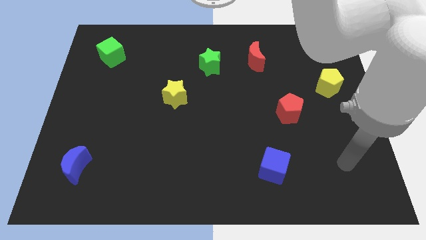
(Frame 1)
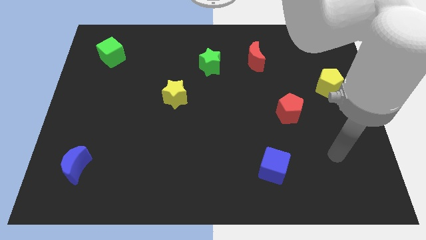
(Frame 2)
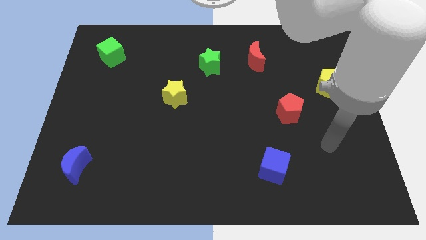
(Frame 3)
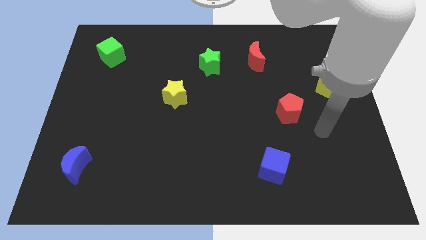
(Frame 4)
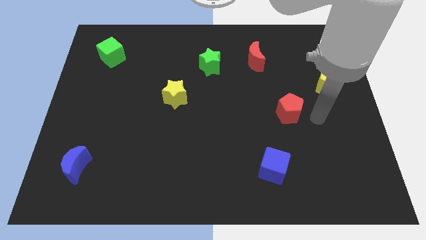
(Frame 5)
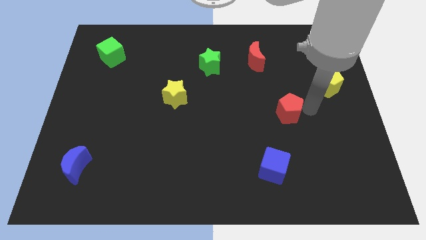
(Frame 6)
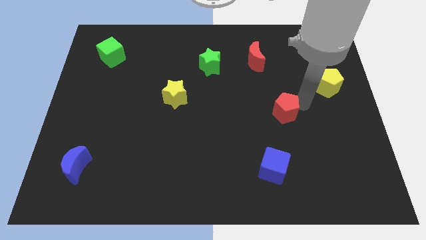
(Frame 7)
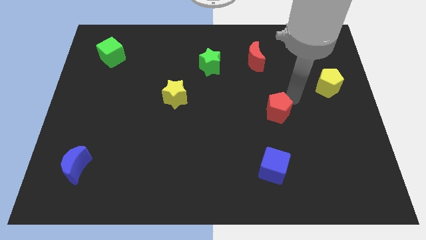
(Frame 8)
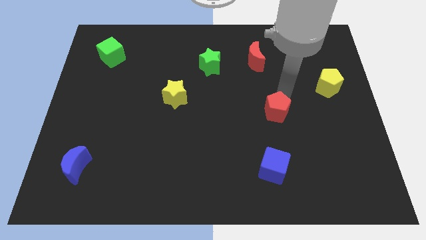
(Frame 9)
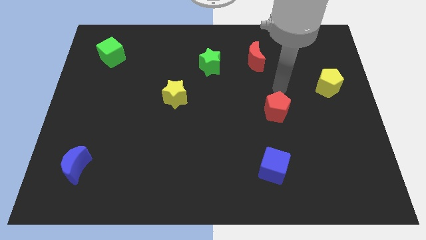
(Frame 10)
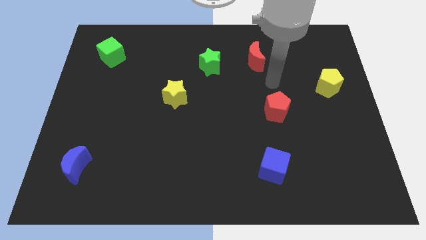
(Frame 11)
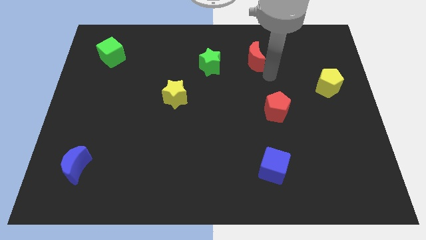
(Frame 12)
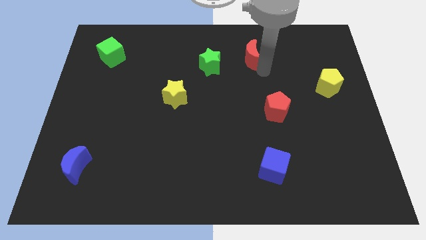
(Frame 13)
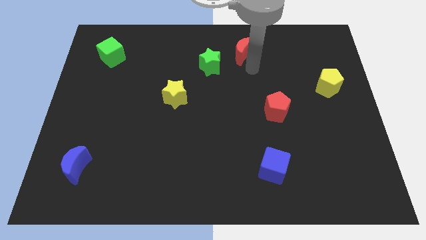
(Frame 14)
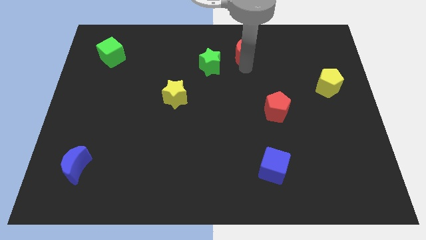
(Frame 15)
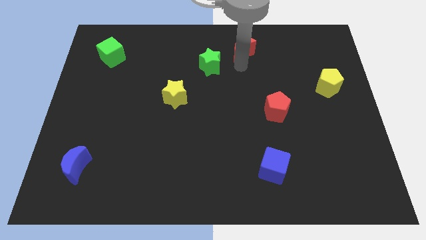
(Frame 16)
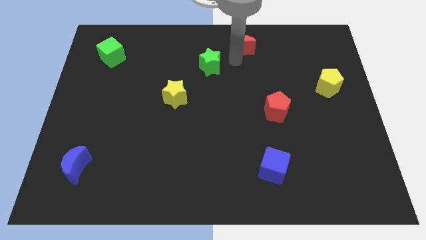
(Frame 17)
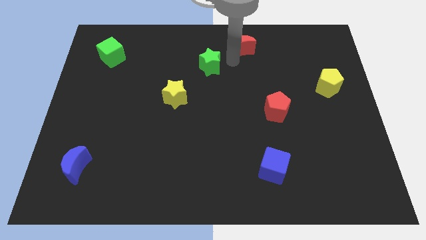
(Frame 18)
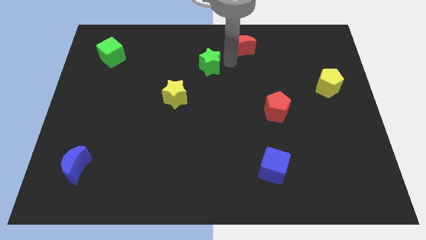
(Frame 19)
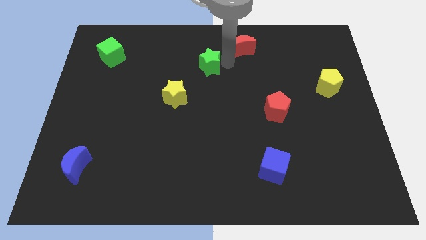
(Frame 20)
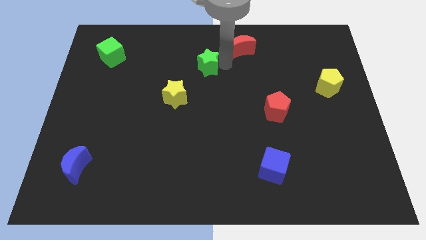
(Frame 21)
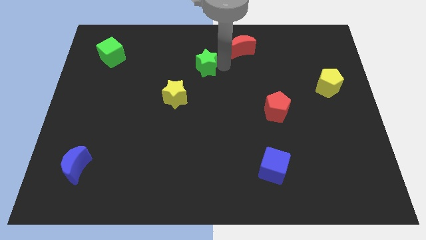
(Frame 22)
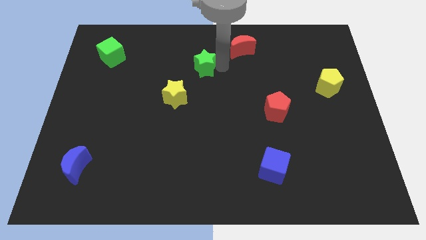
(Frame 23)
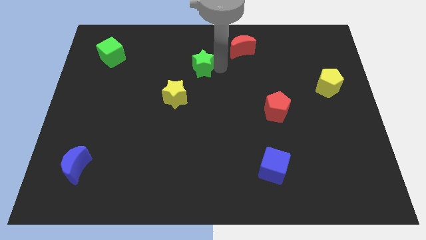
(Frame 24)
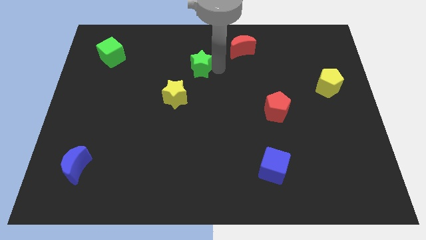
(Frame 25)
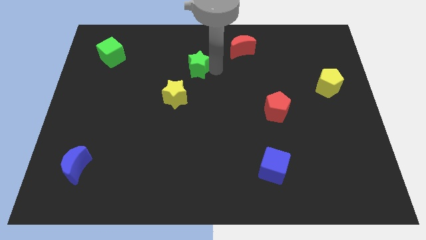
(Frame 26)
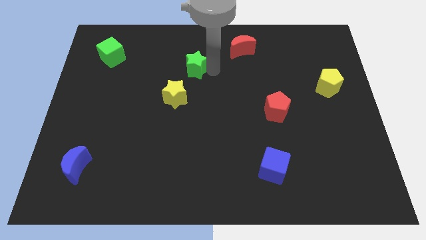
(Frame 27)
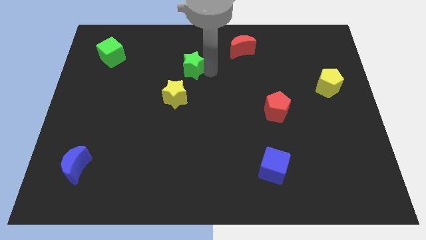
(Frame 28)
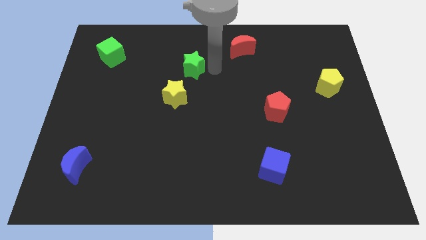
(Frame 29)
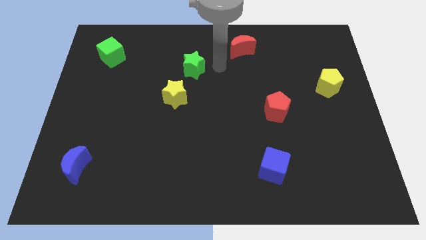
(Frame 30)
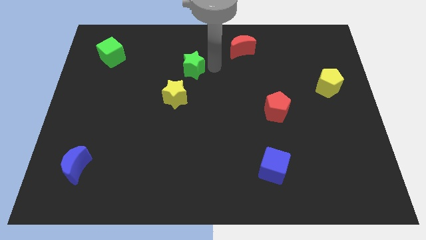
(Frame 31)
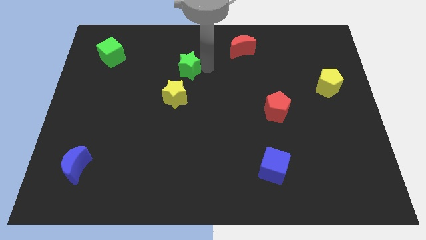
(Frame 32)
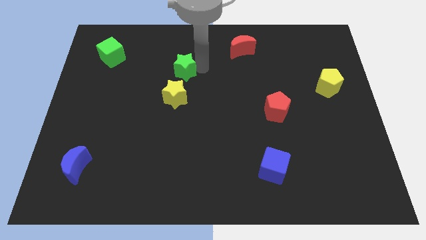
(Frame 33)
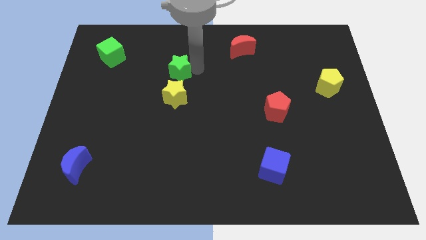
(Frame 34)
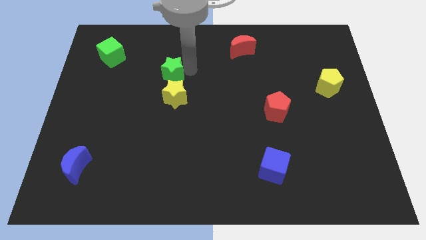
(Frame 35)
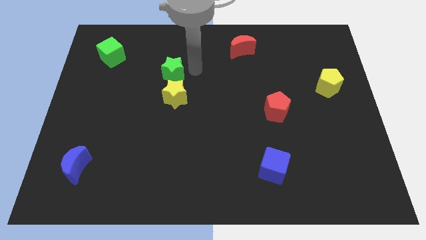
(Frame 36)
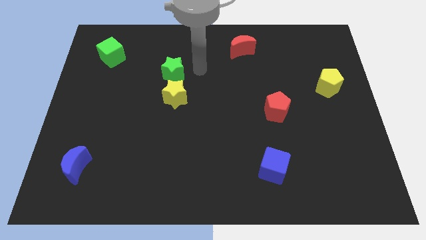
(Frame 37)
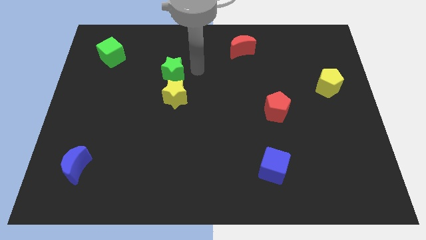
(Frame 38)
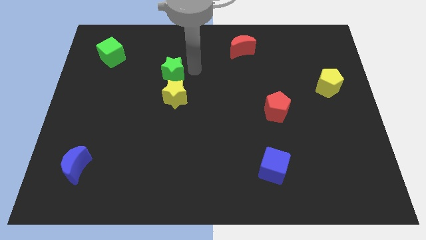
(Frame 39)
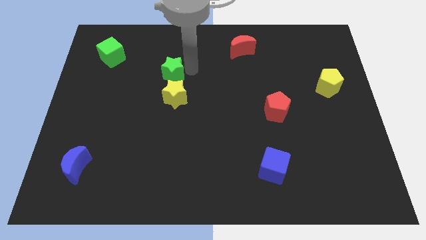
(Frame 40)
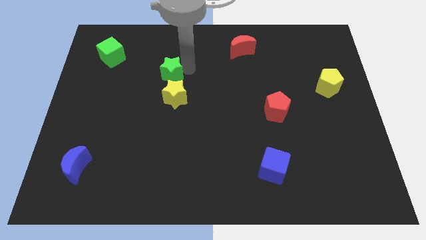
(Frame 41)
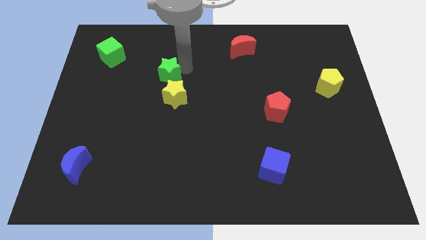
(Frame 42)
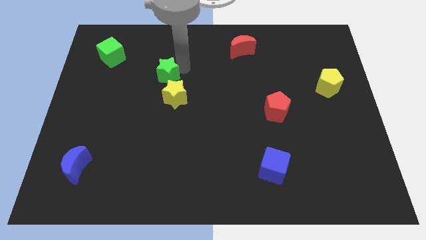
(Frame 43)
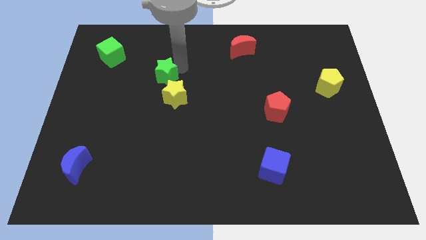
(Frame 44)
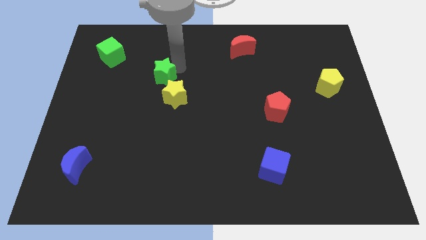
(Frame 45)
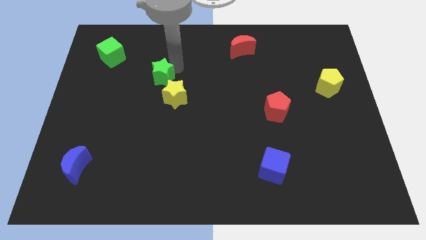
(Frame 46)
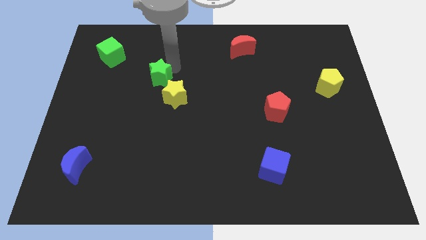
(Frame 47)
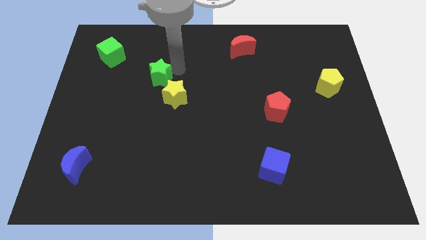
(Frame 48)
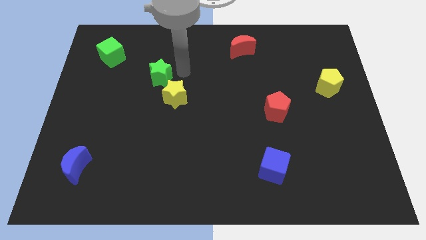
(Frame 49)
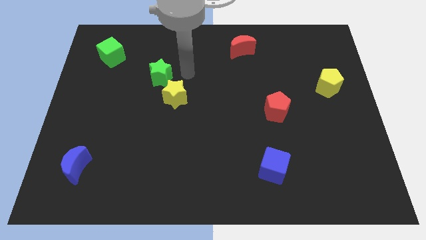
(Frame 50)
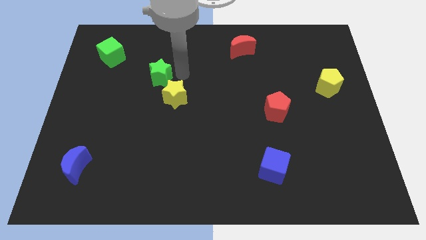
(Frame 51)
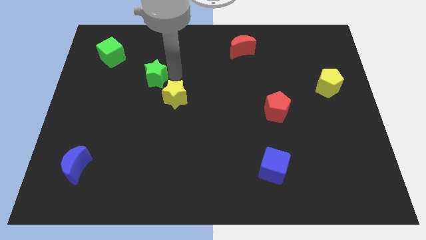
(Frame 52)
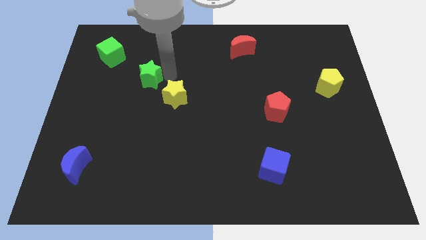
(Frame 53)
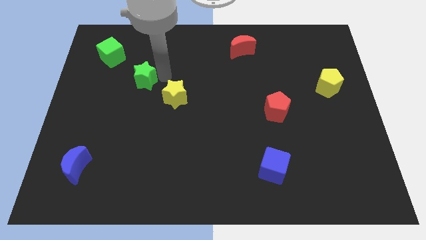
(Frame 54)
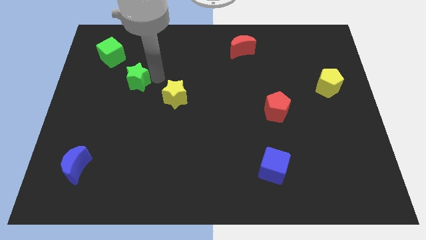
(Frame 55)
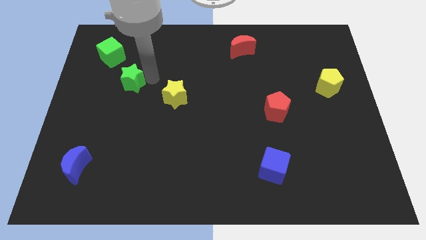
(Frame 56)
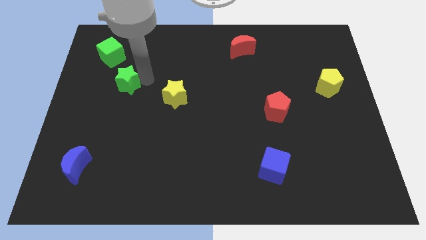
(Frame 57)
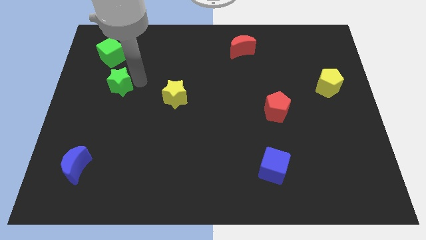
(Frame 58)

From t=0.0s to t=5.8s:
put the green star to the bottom side of the green cube

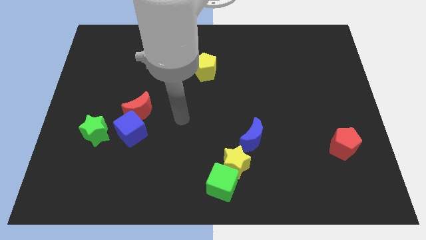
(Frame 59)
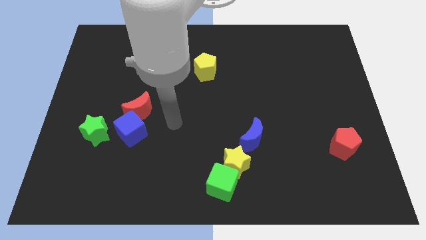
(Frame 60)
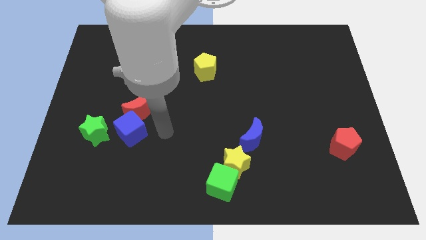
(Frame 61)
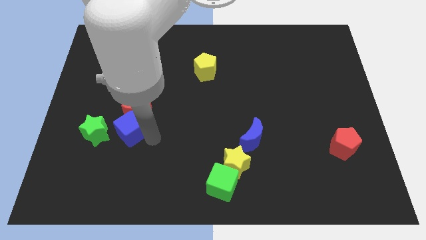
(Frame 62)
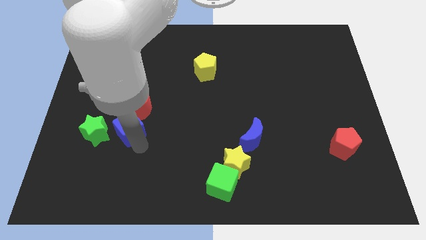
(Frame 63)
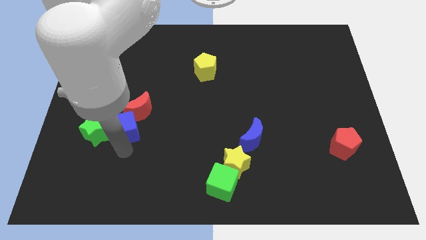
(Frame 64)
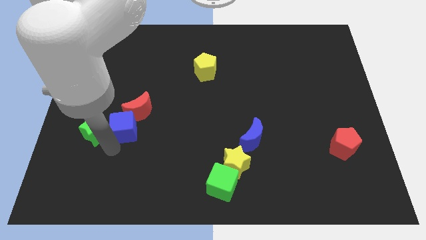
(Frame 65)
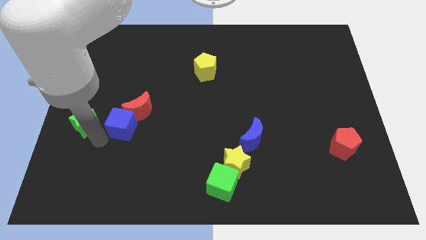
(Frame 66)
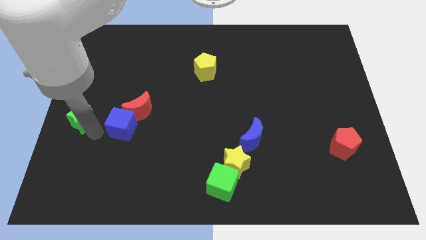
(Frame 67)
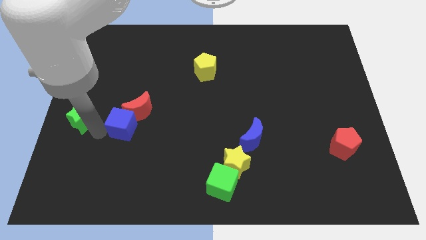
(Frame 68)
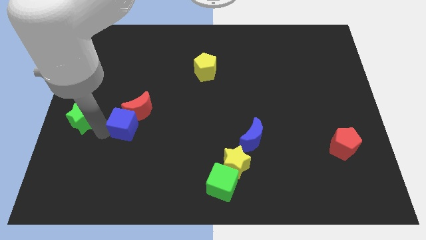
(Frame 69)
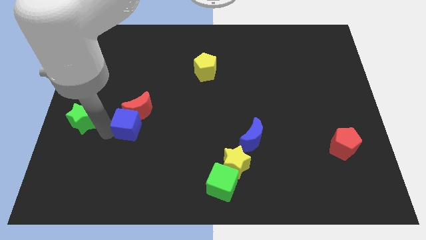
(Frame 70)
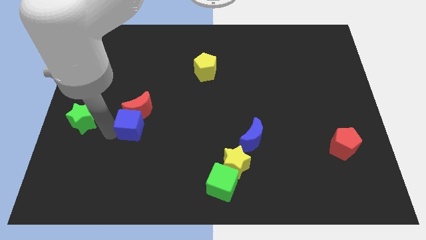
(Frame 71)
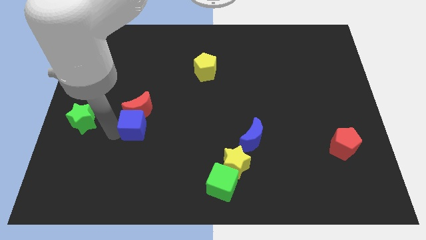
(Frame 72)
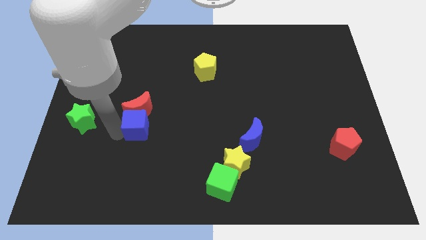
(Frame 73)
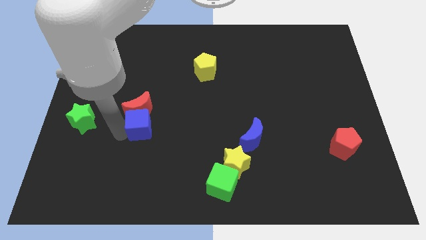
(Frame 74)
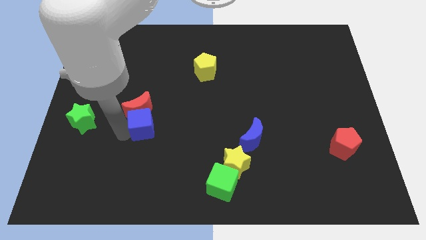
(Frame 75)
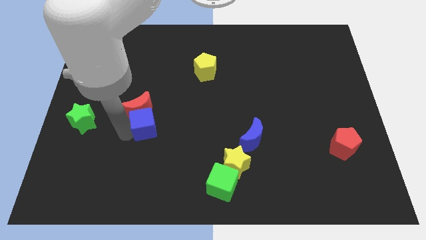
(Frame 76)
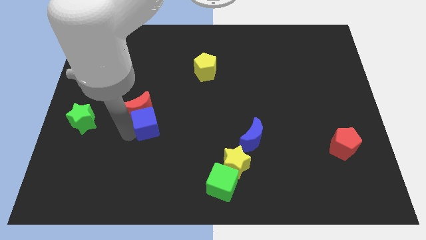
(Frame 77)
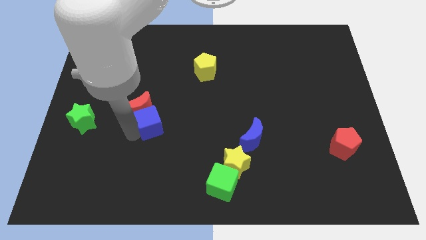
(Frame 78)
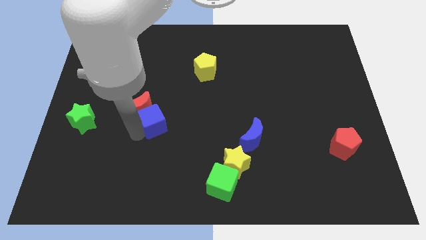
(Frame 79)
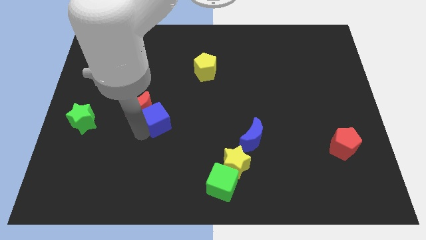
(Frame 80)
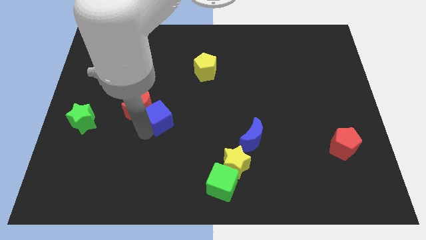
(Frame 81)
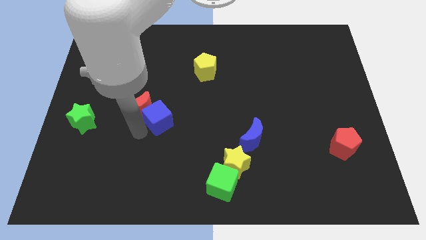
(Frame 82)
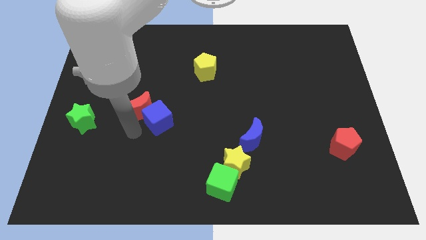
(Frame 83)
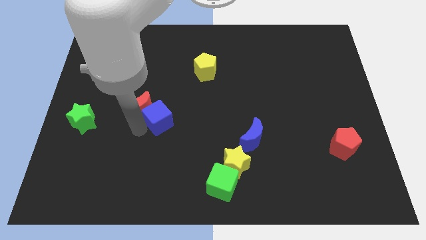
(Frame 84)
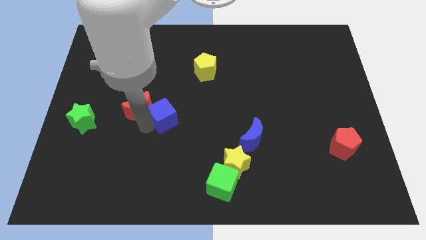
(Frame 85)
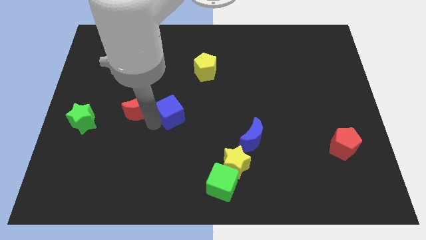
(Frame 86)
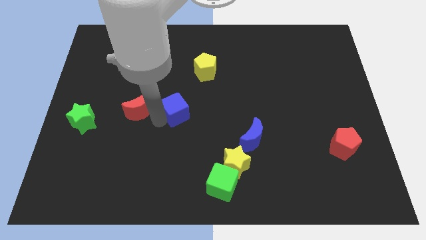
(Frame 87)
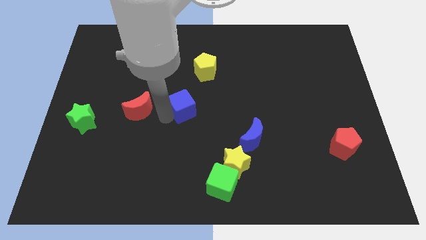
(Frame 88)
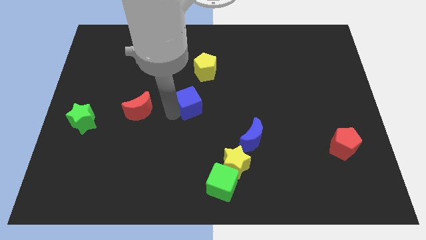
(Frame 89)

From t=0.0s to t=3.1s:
push the blue cube below the yellow pentagon

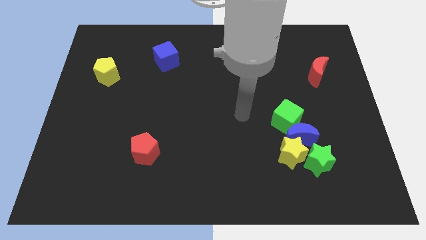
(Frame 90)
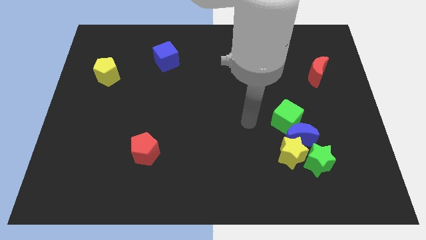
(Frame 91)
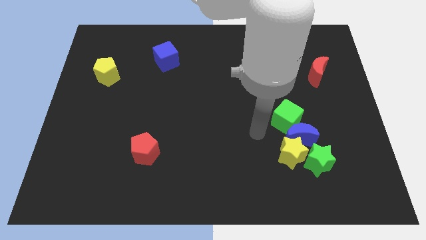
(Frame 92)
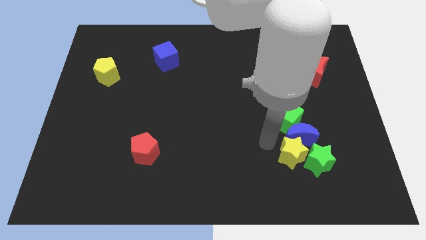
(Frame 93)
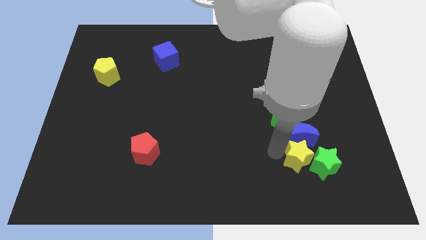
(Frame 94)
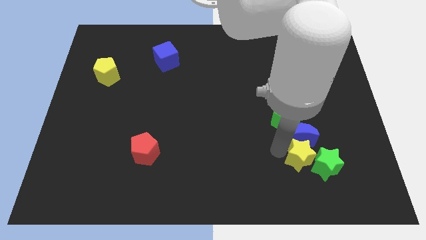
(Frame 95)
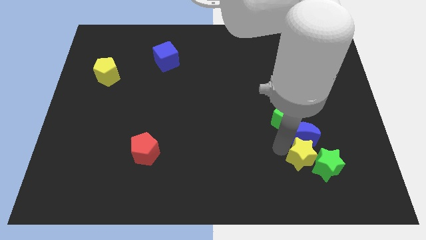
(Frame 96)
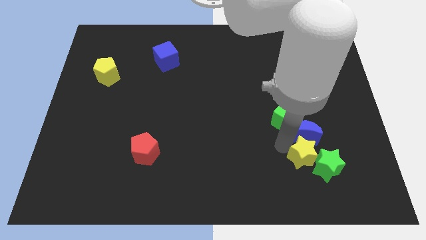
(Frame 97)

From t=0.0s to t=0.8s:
slide the blue moon right of the green cube
